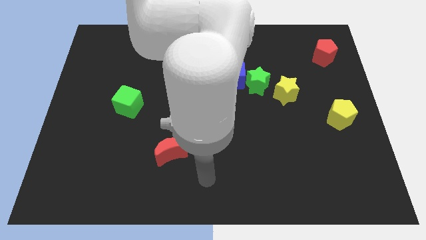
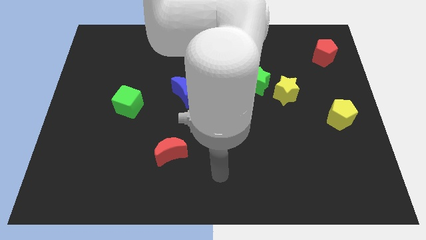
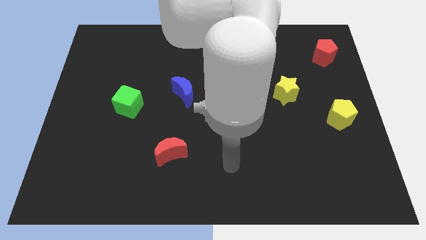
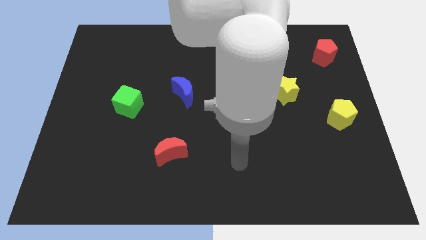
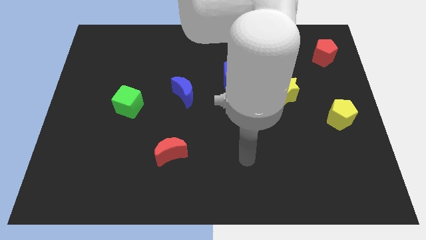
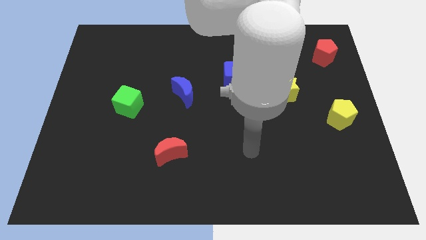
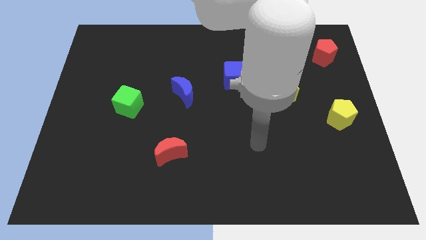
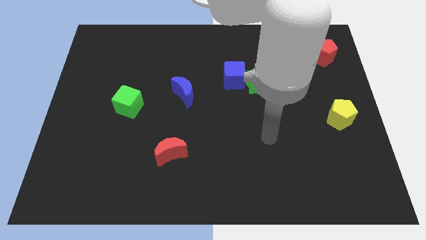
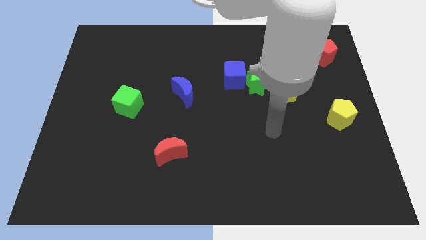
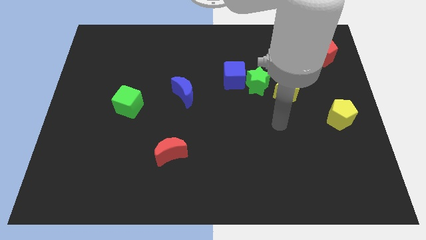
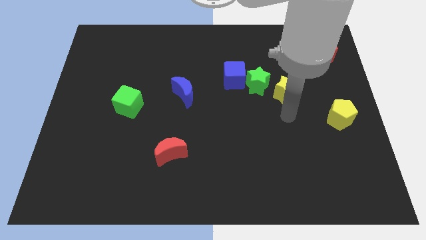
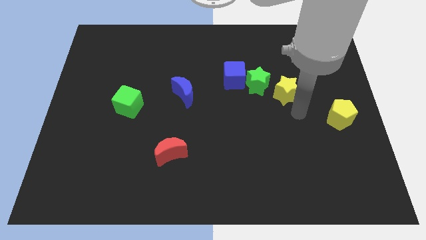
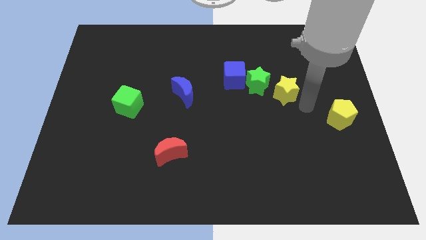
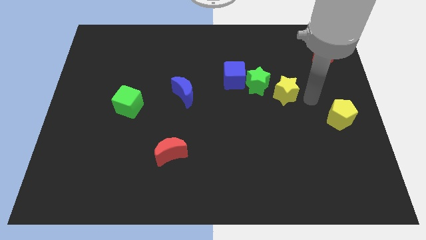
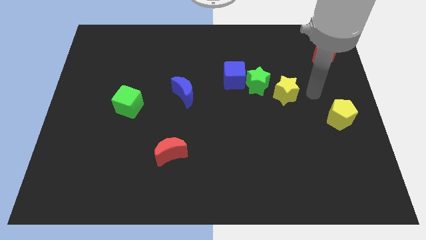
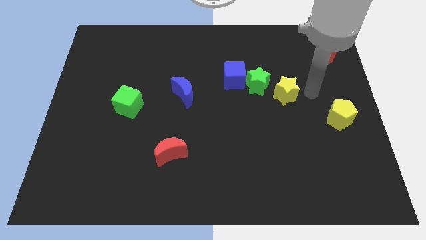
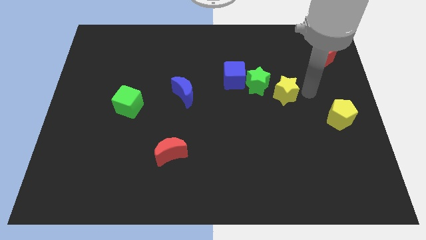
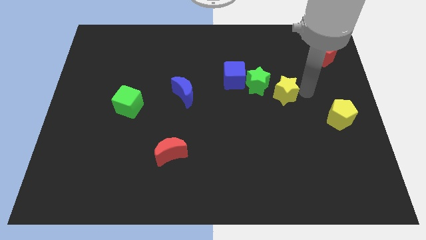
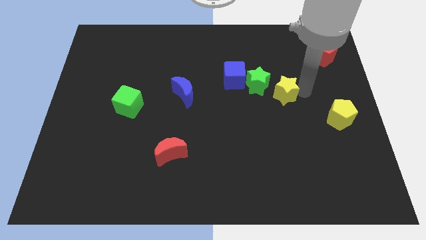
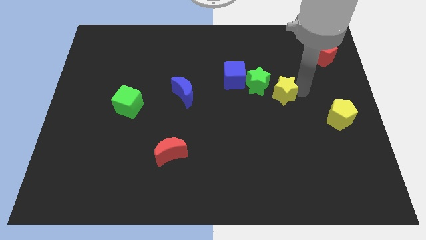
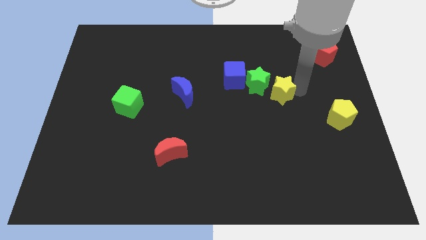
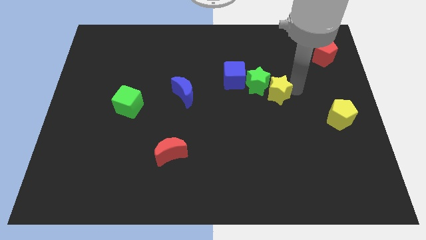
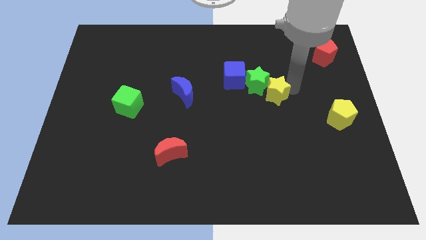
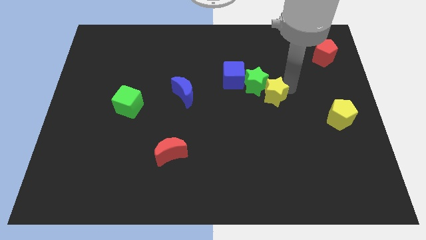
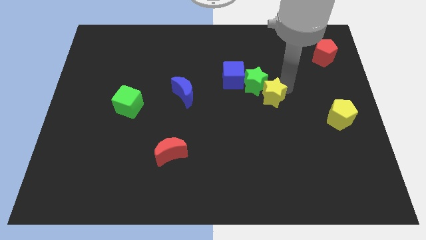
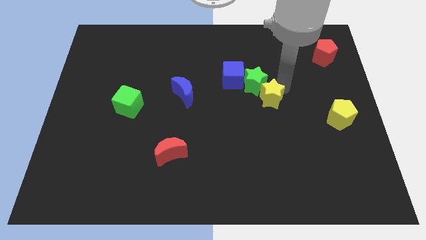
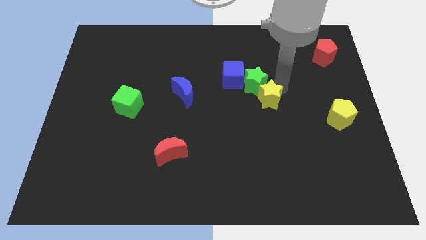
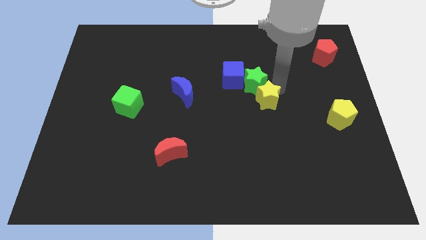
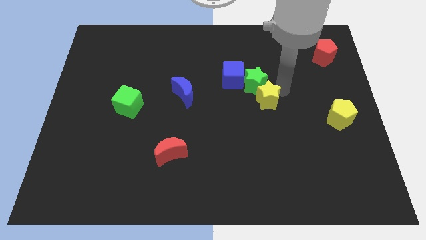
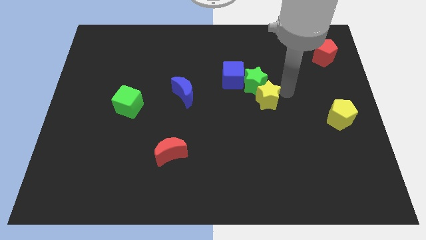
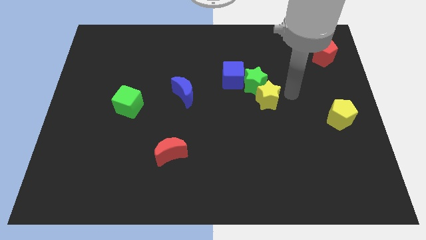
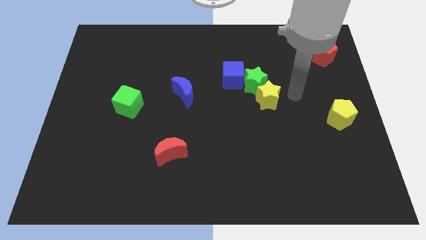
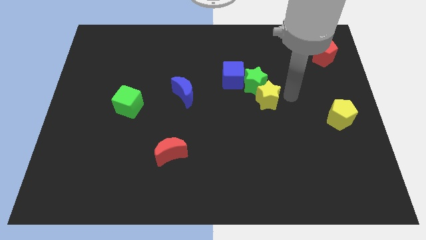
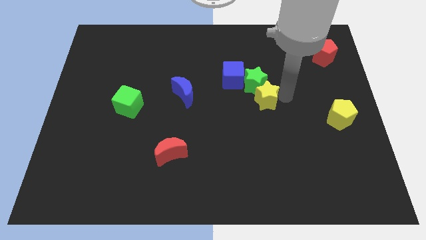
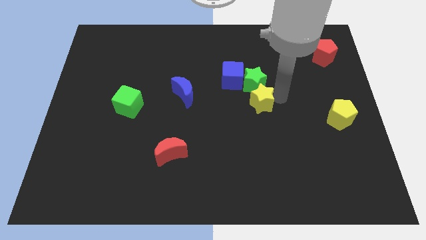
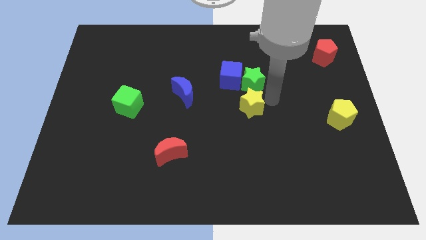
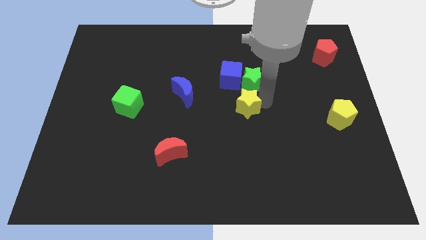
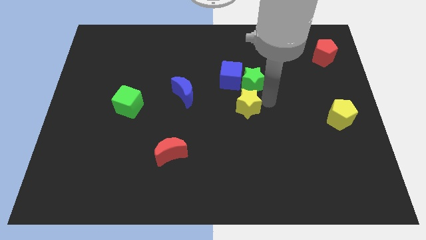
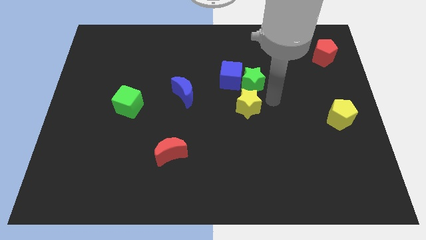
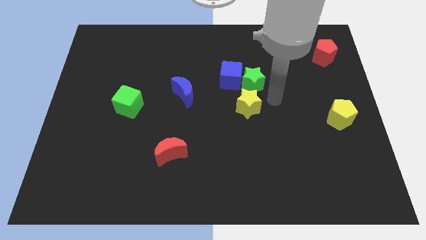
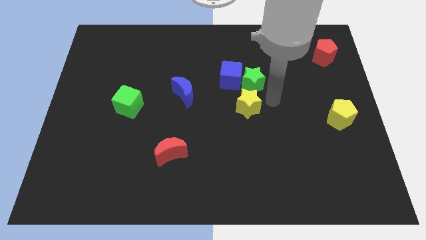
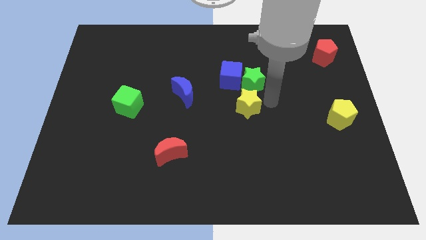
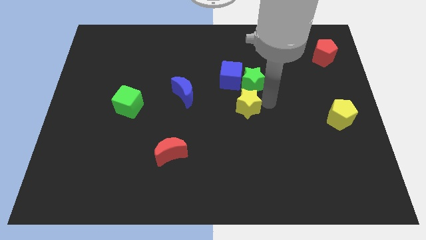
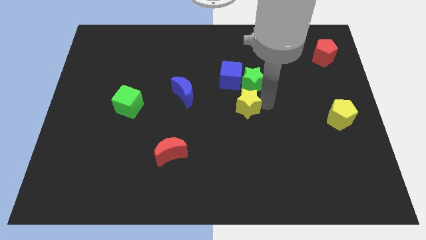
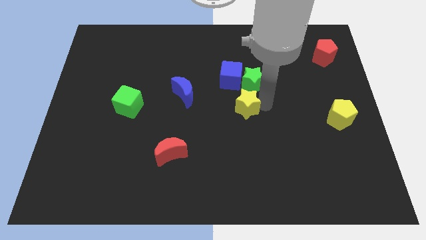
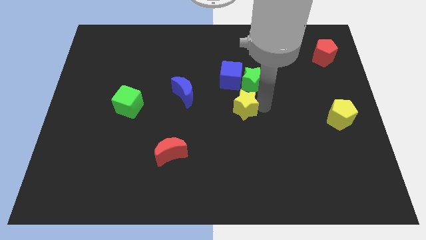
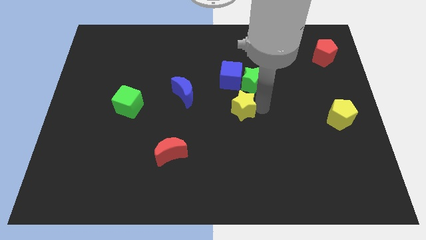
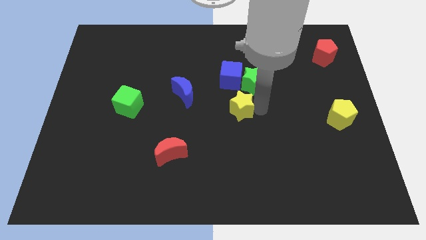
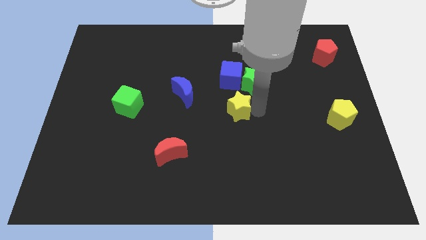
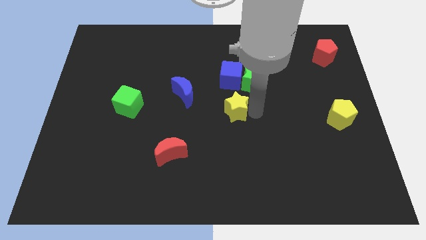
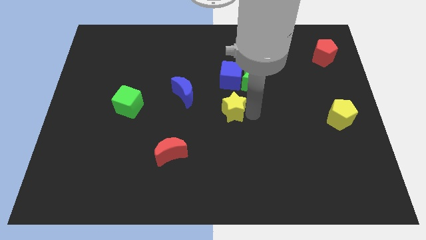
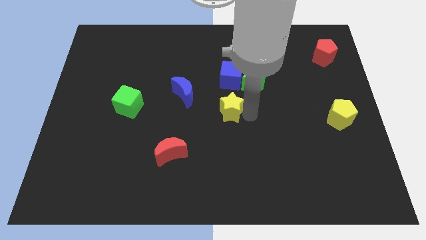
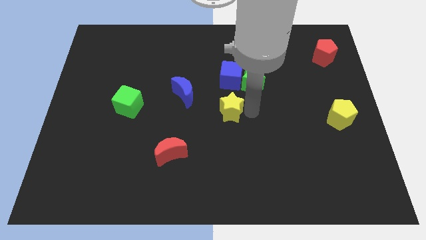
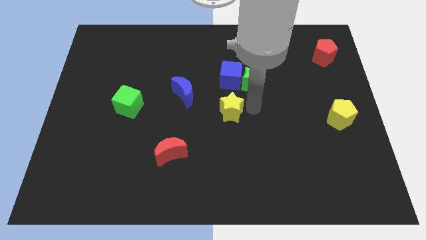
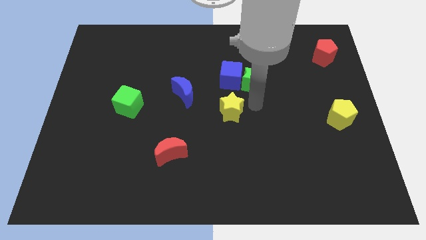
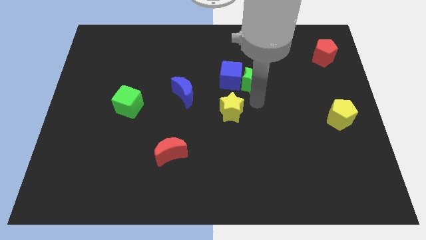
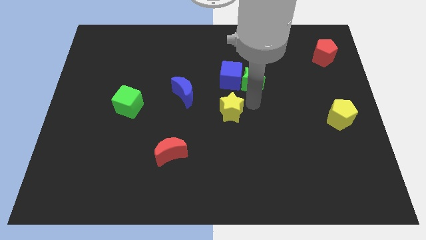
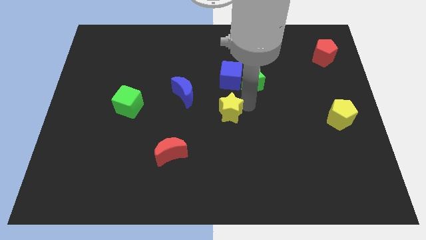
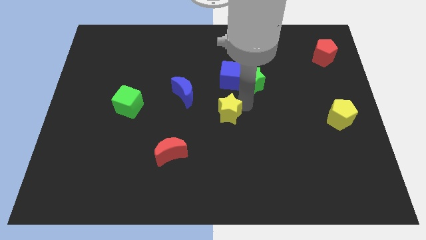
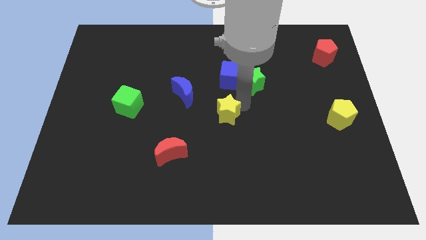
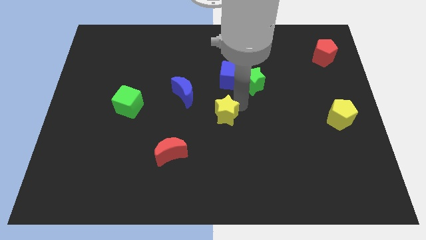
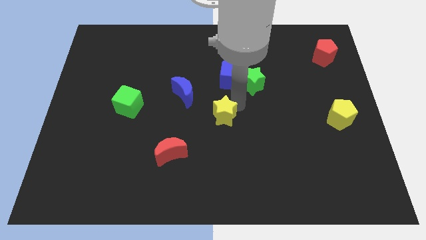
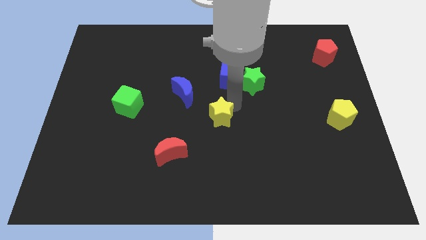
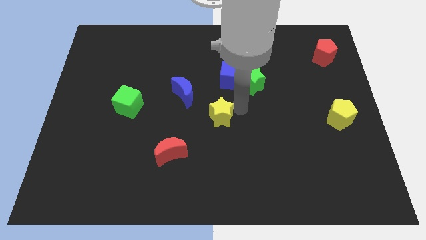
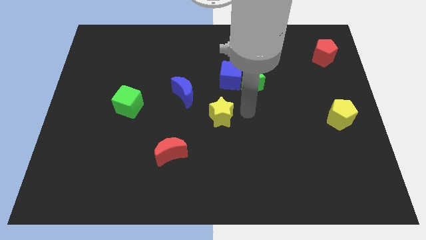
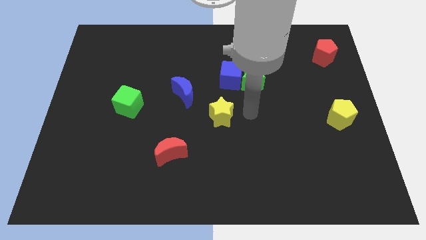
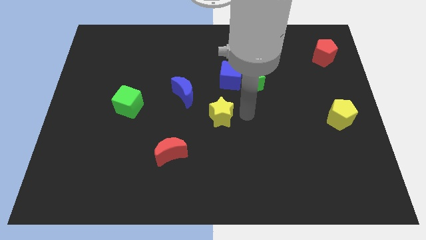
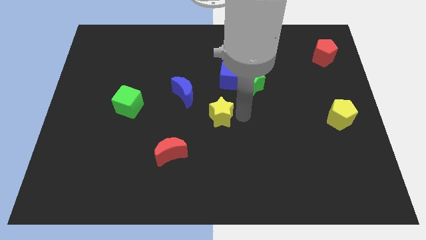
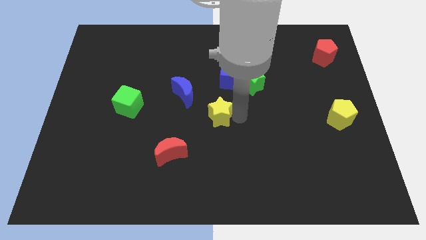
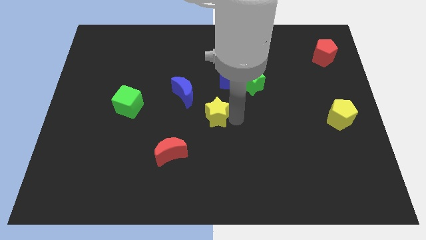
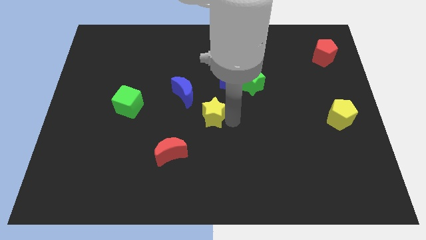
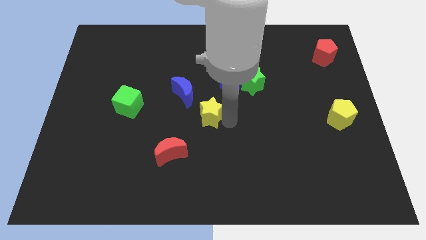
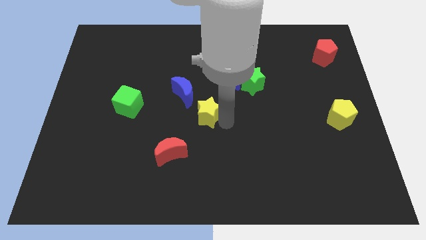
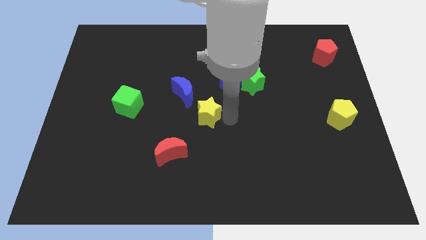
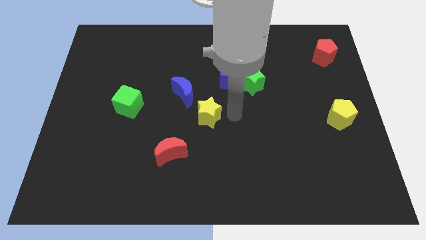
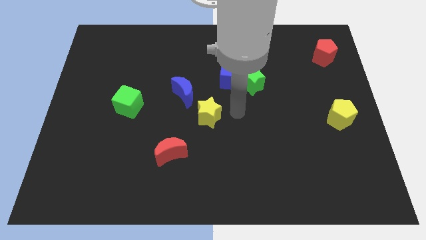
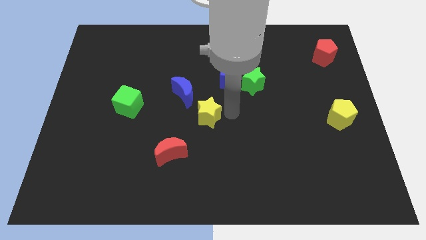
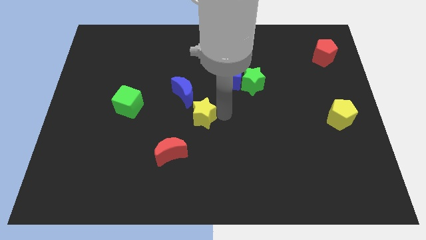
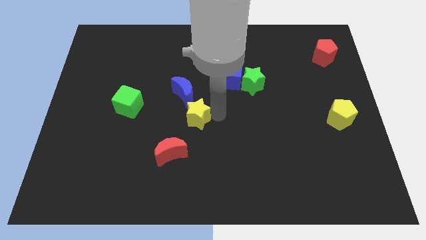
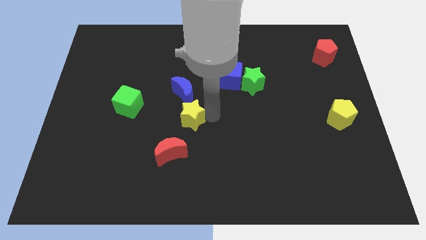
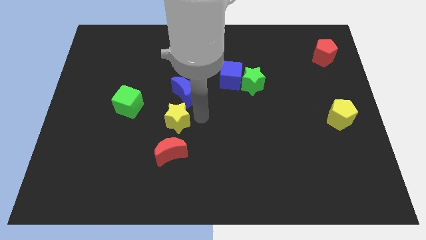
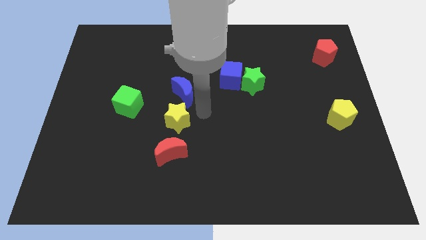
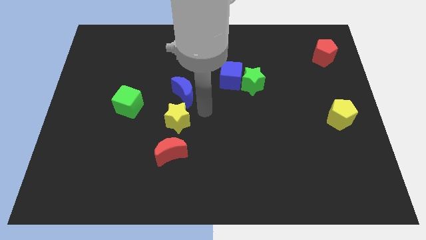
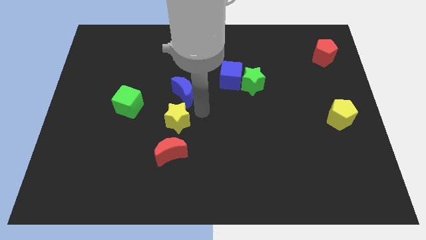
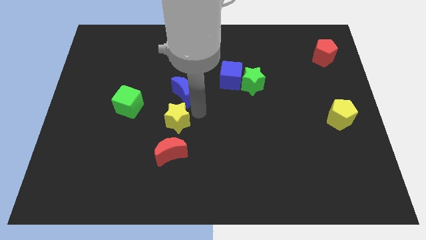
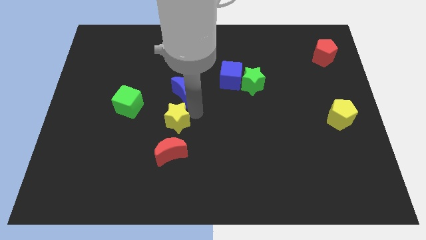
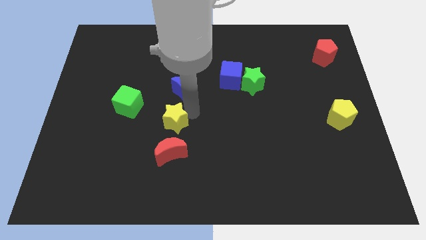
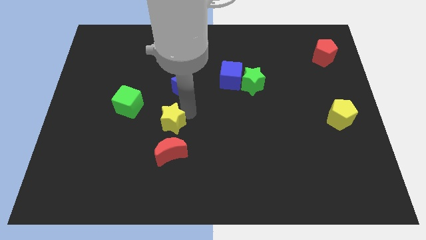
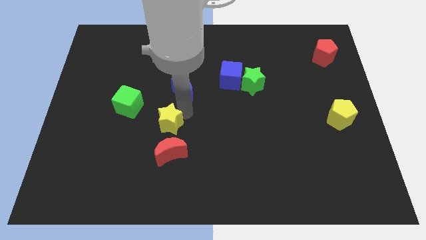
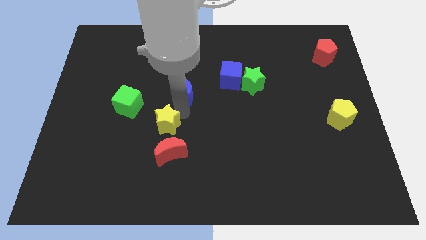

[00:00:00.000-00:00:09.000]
move the yellow star diagonally up and to the left of the red moon
